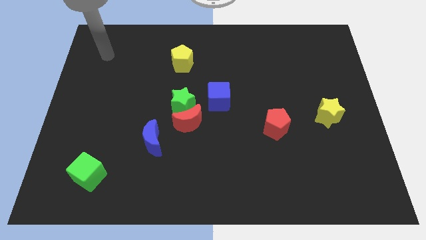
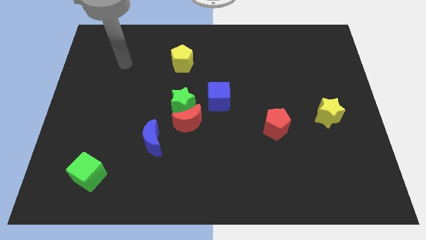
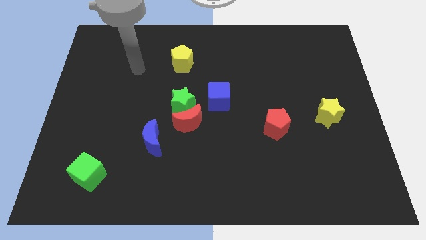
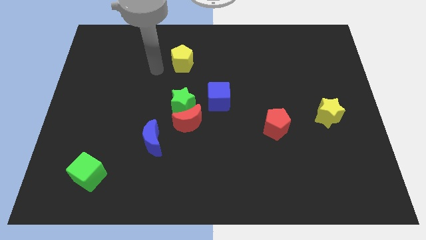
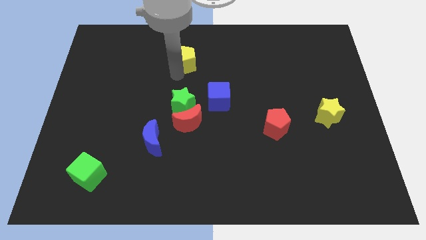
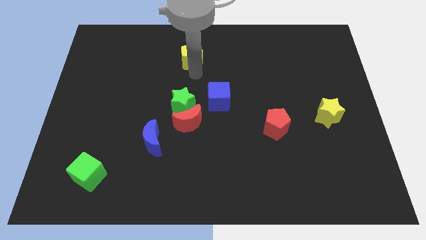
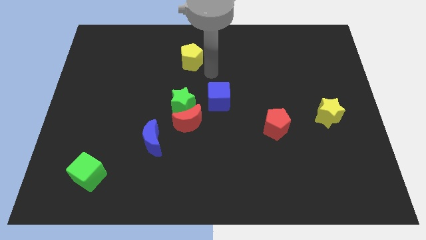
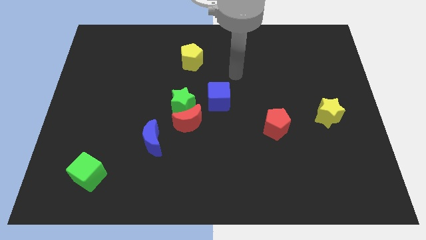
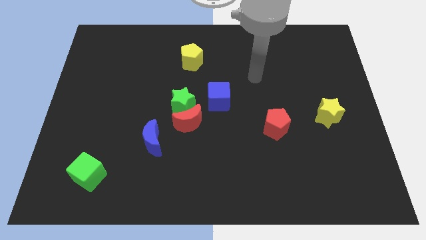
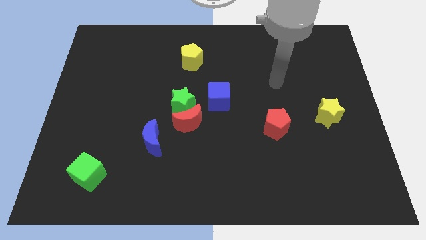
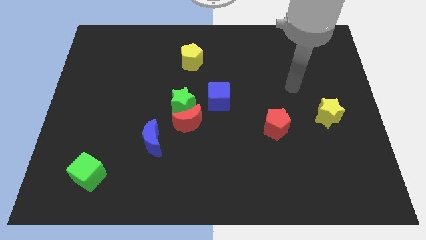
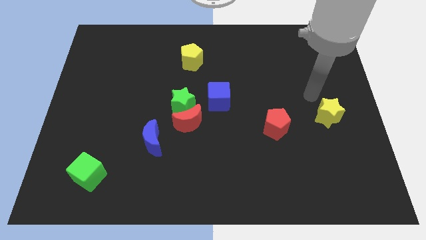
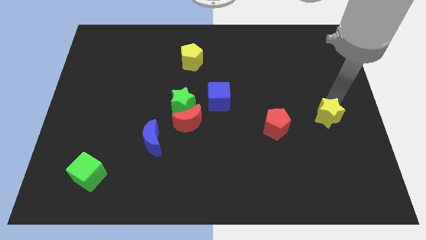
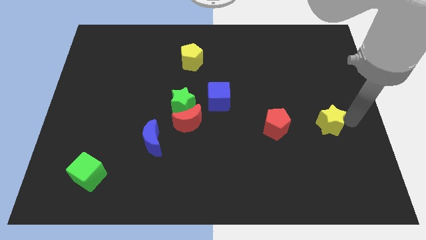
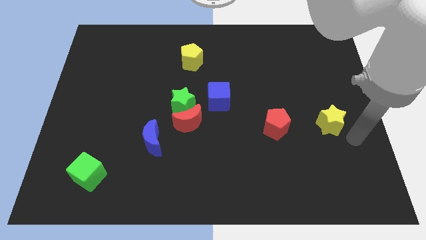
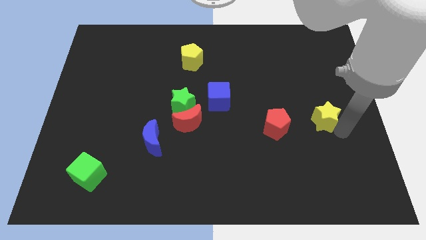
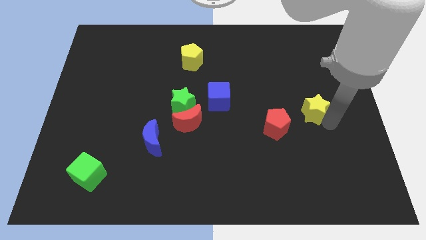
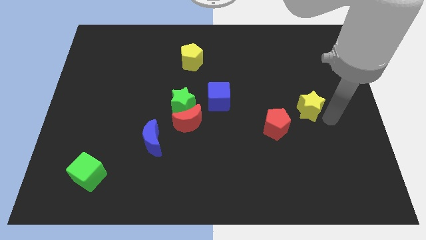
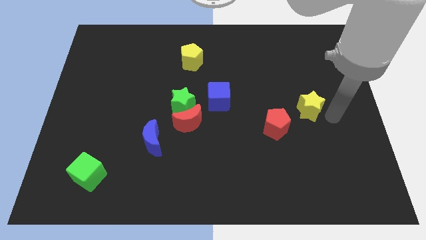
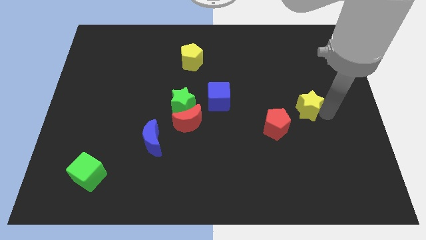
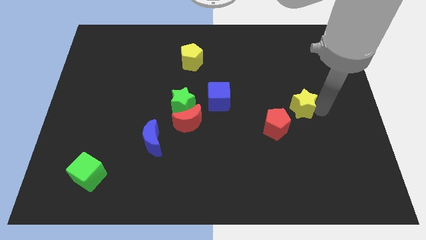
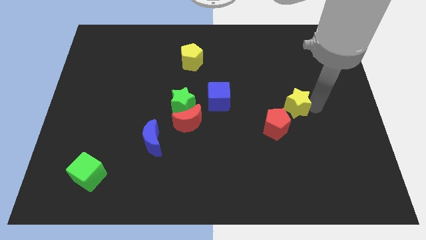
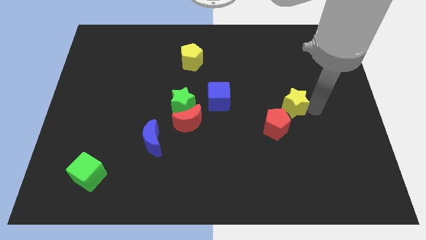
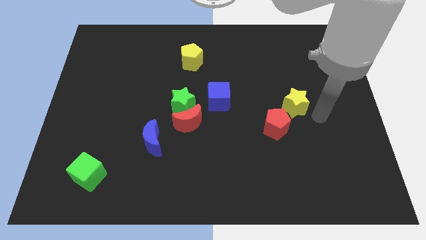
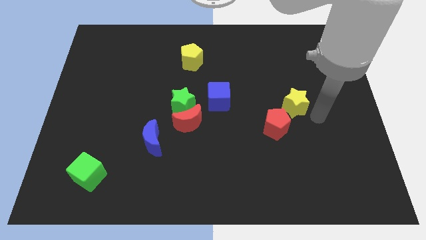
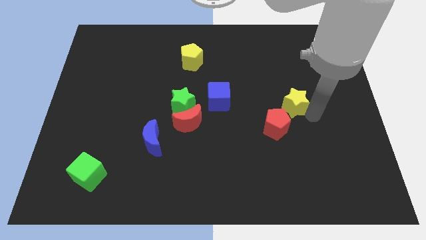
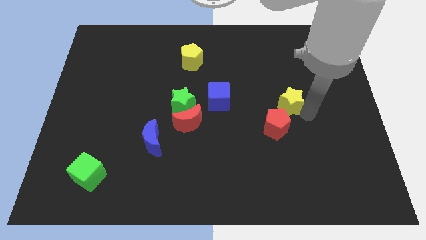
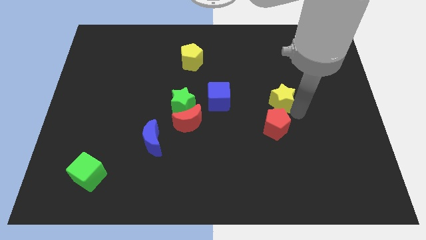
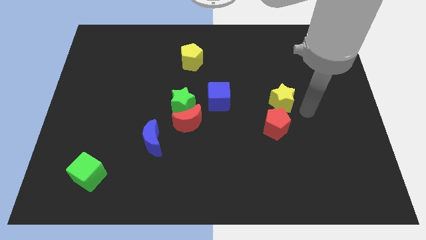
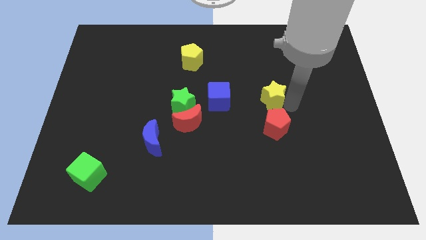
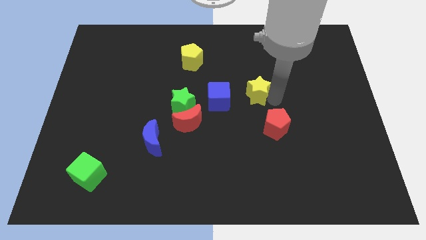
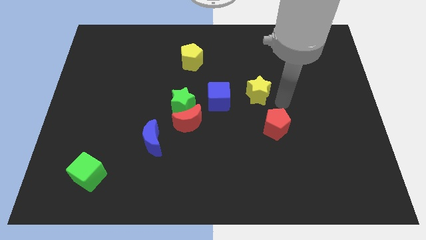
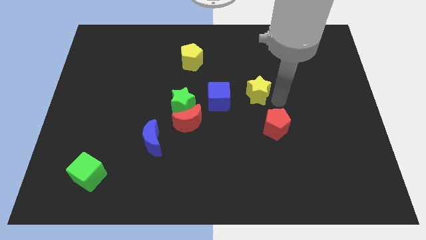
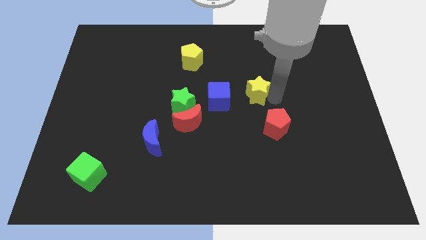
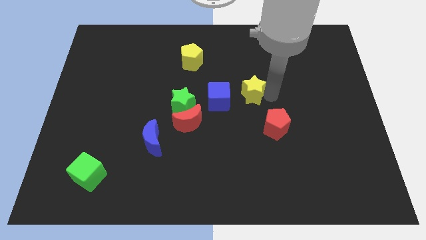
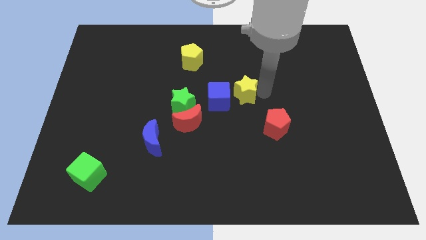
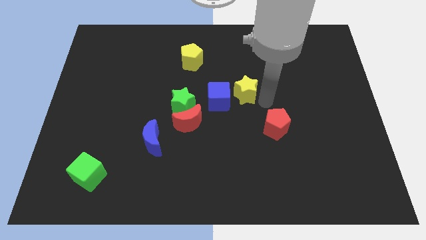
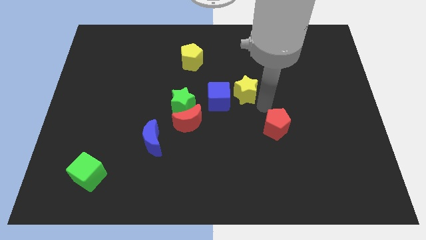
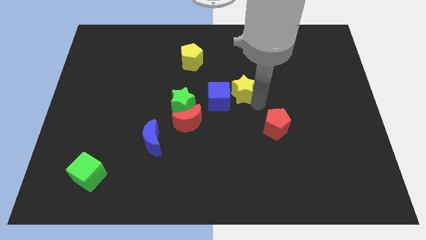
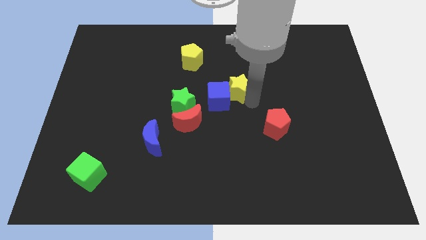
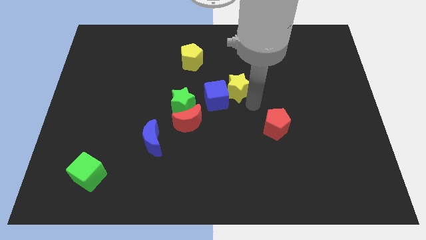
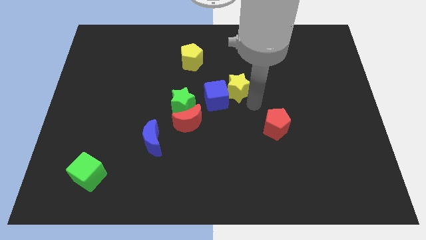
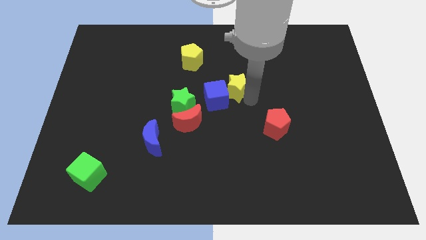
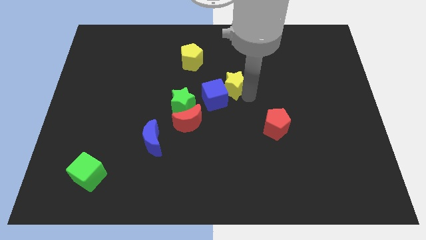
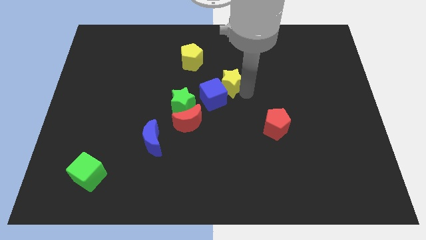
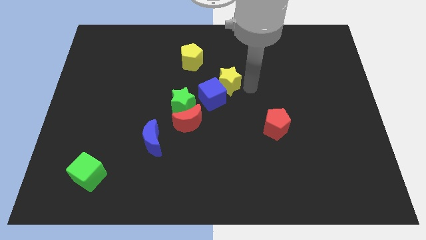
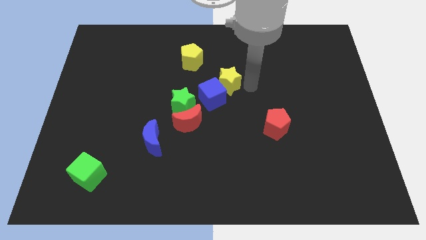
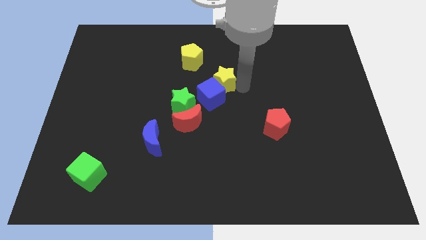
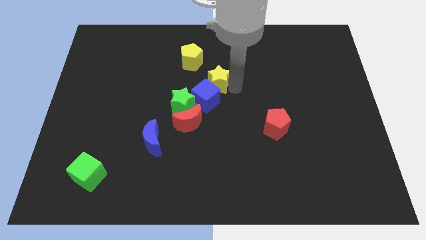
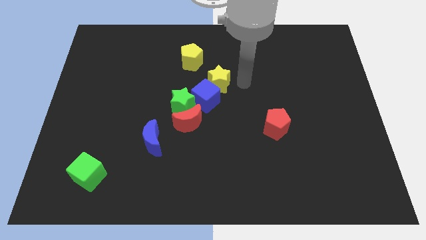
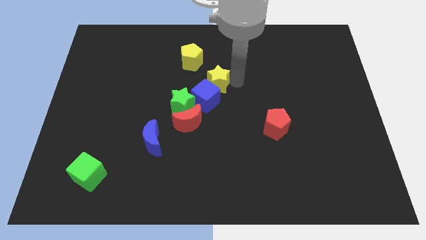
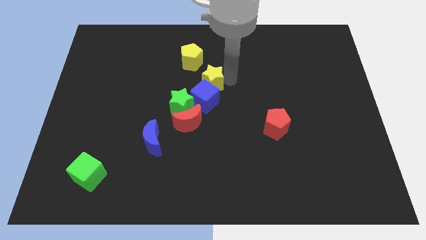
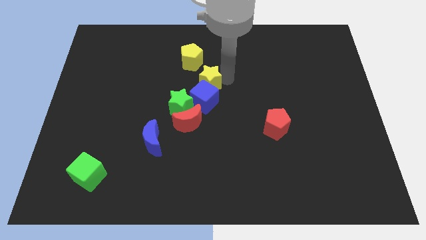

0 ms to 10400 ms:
move the yellow star to the top left side of the blue cube

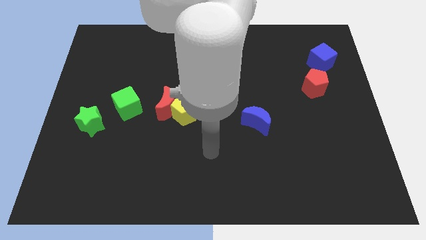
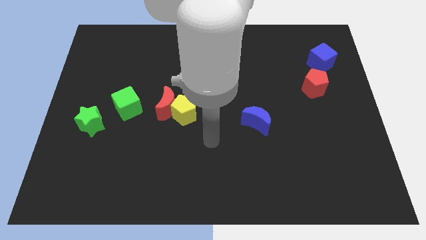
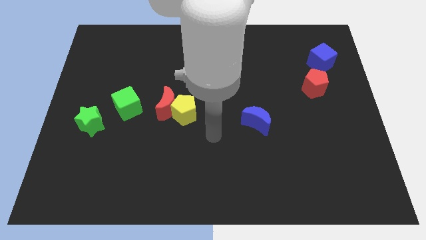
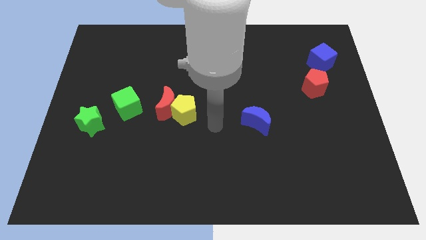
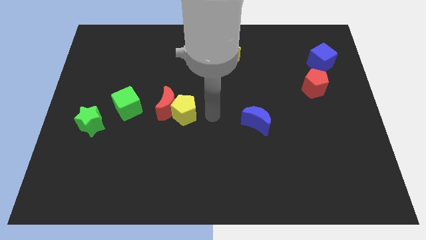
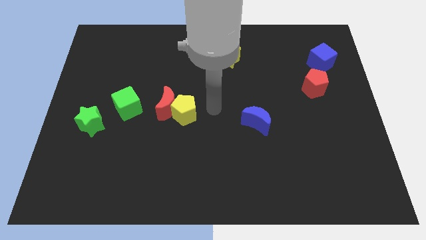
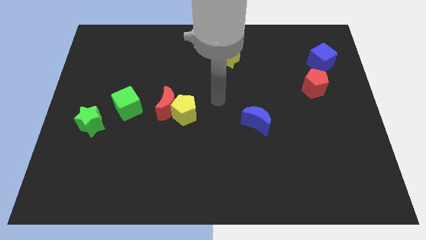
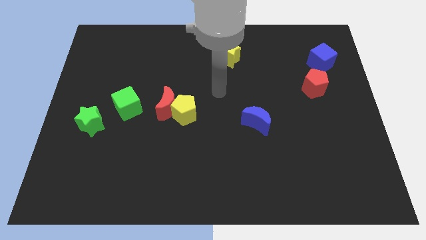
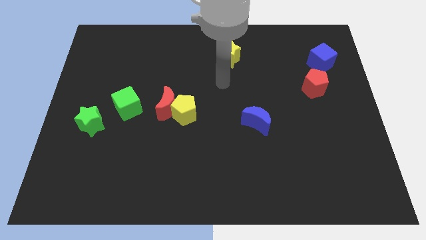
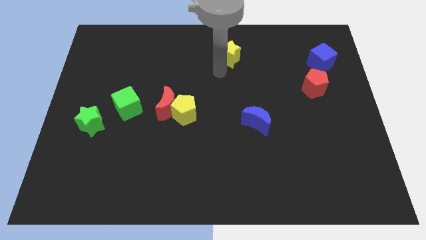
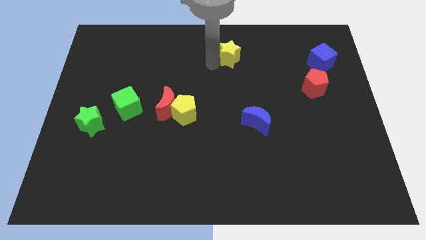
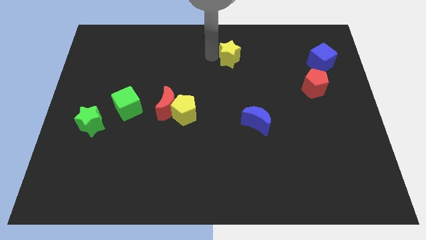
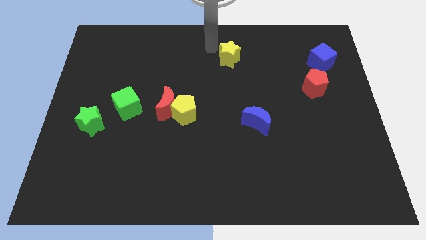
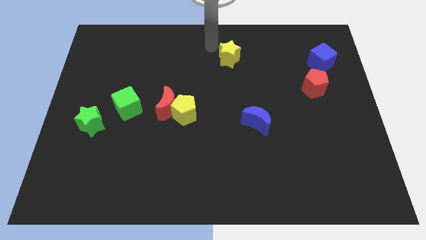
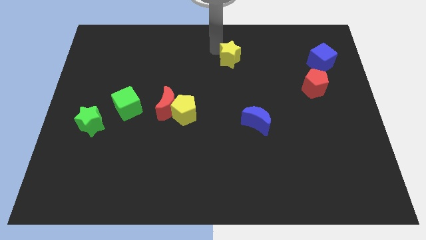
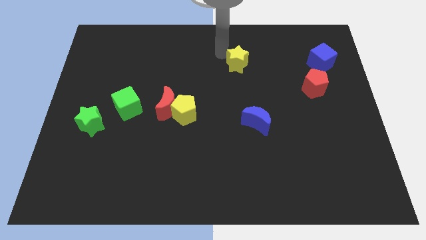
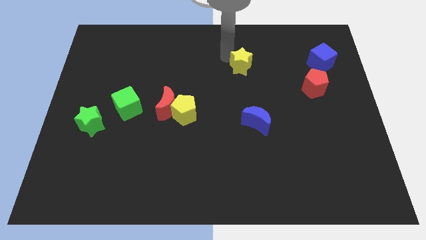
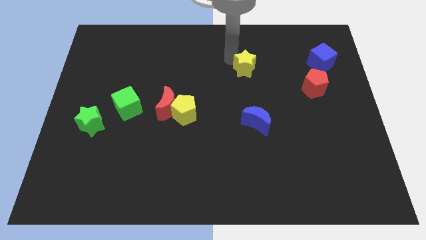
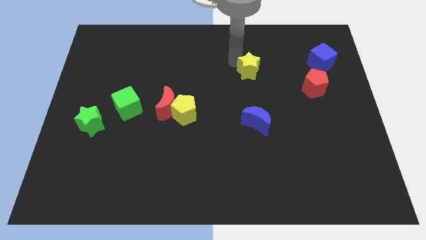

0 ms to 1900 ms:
put the yellow star to the top side of the blue moon

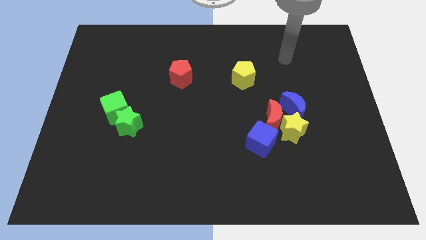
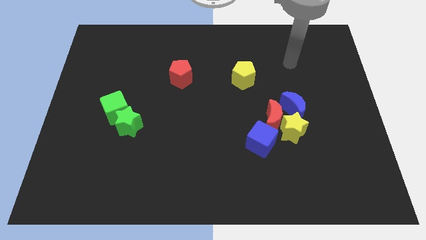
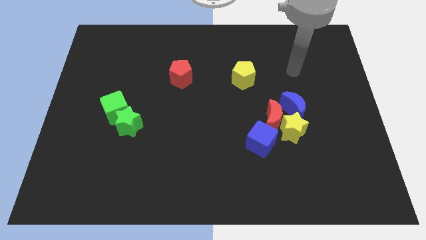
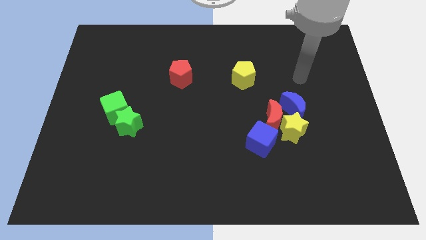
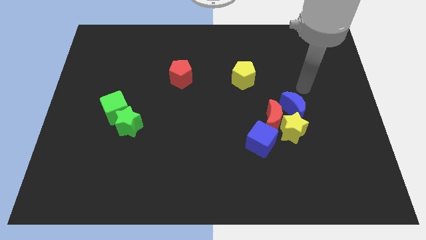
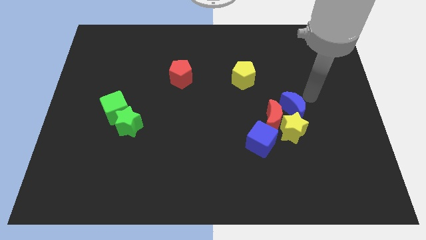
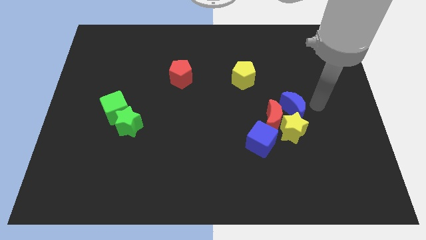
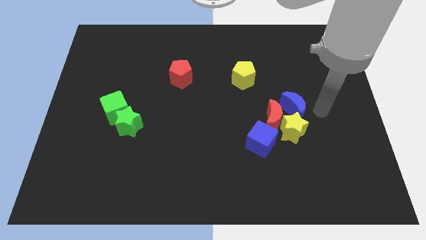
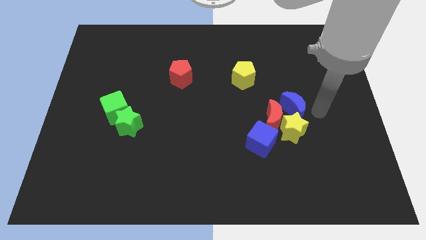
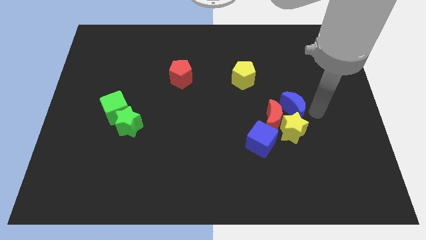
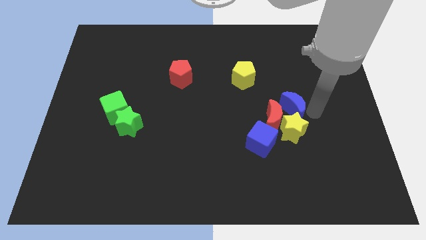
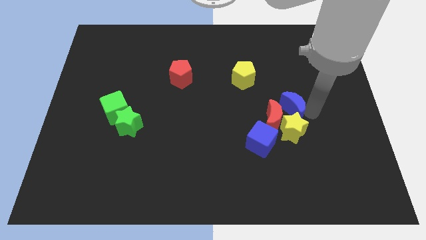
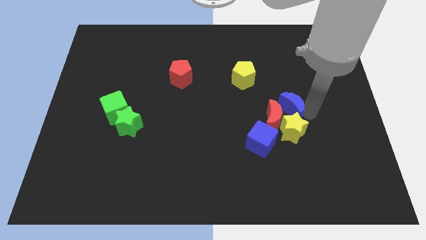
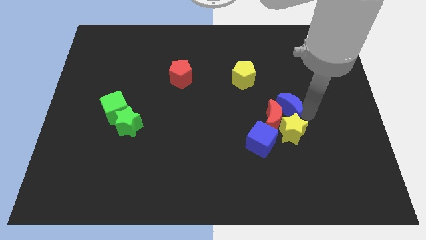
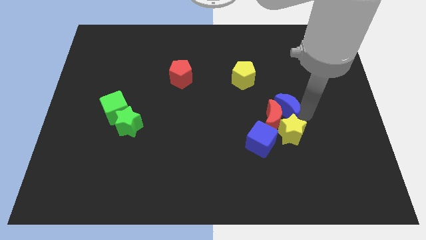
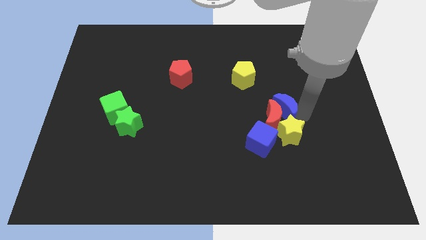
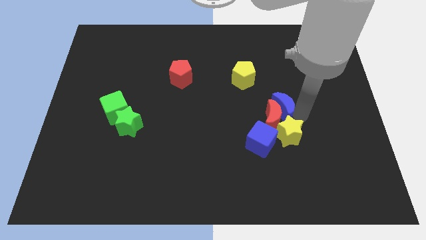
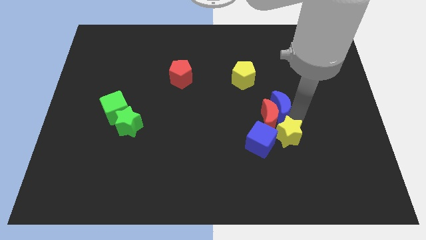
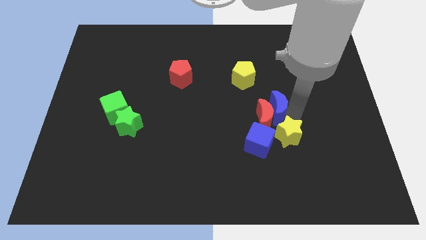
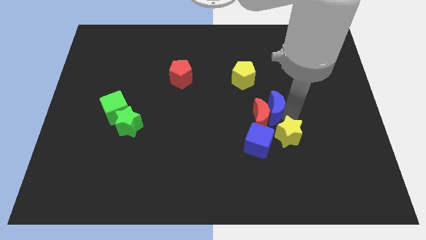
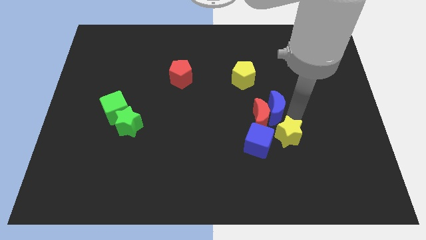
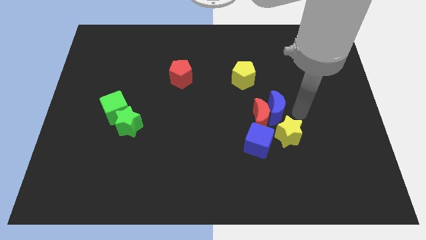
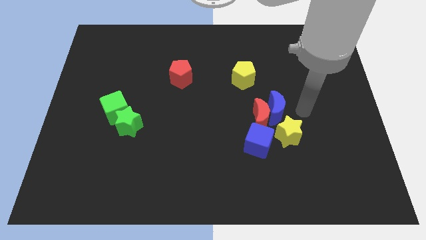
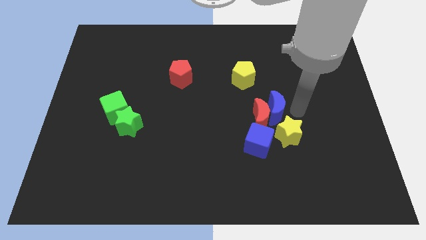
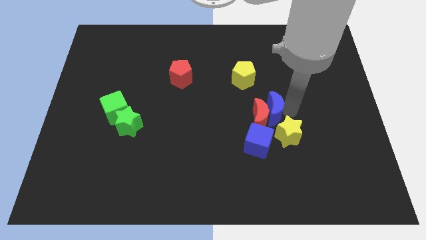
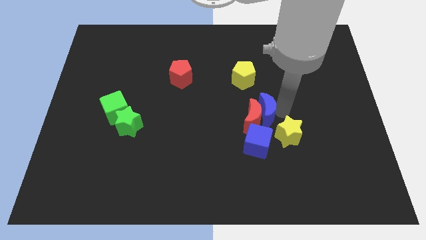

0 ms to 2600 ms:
slide the blue moon to the bottom of the yellow pentagon
